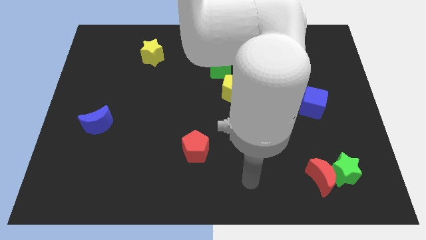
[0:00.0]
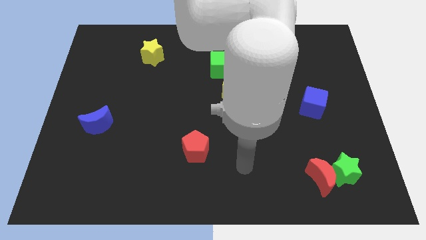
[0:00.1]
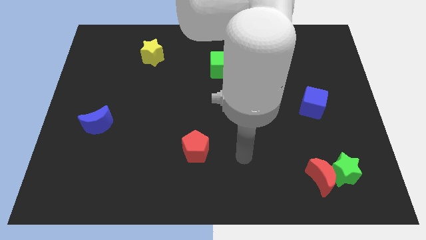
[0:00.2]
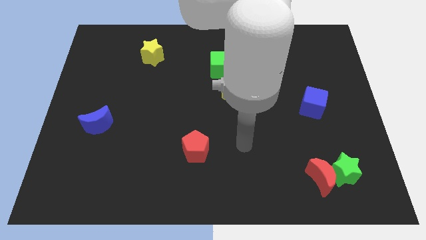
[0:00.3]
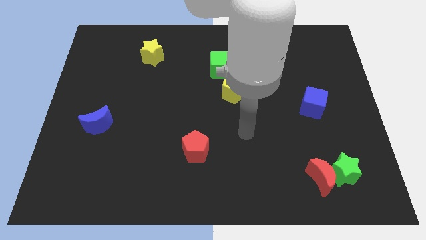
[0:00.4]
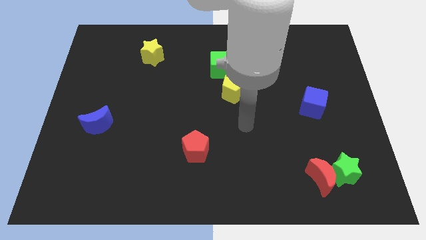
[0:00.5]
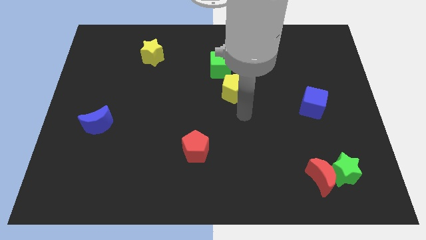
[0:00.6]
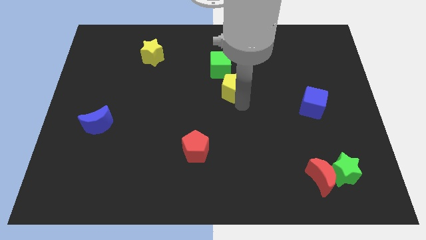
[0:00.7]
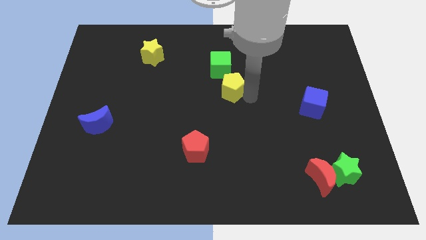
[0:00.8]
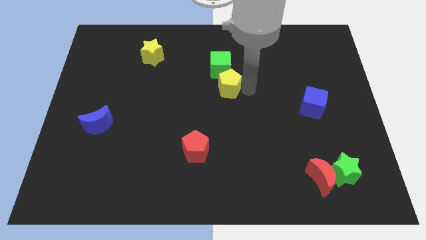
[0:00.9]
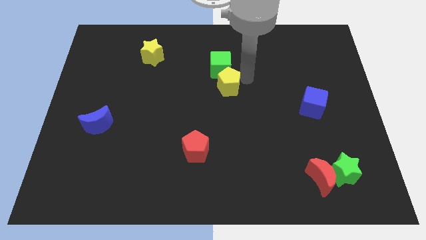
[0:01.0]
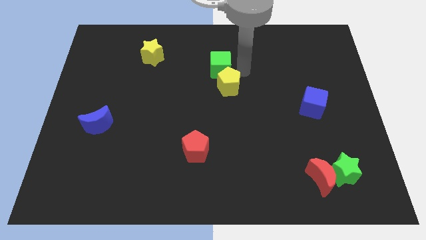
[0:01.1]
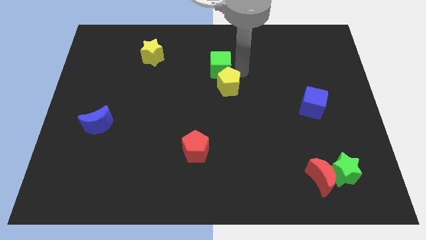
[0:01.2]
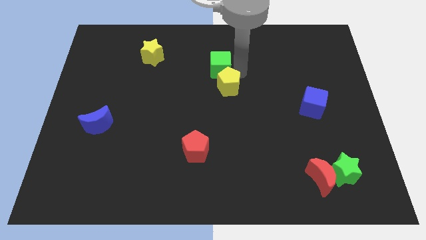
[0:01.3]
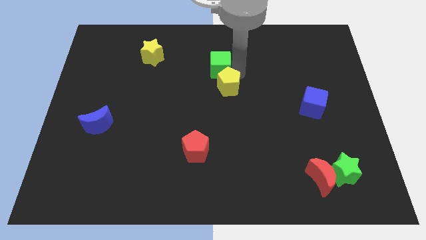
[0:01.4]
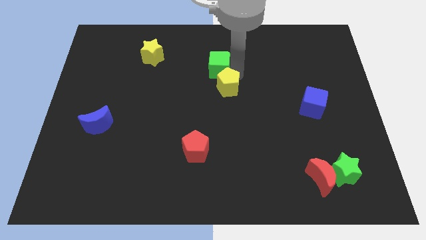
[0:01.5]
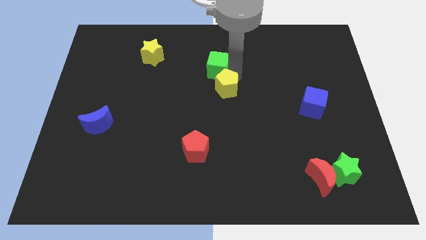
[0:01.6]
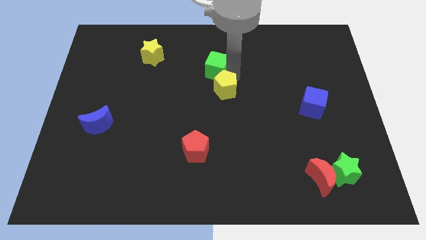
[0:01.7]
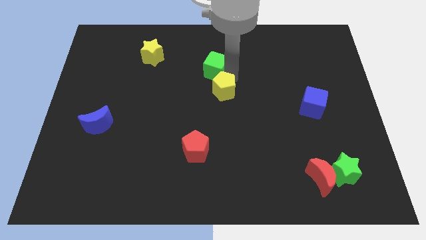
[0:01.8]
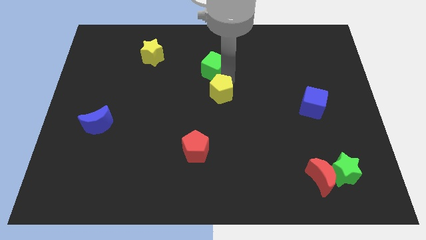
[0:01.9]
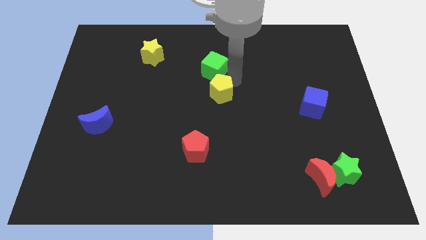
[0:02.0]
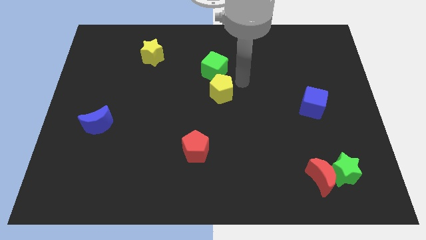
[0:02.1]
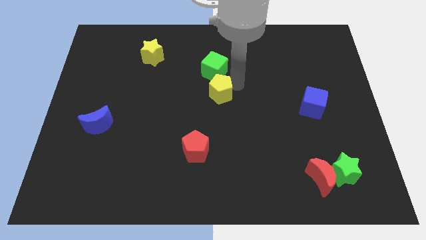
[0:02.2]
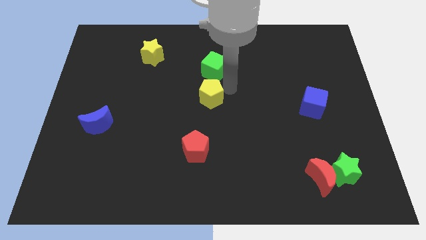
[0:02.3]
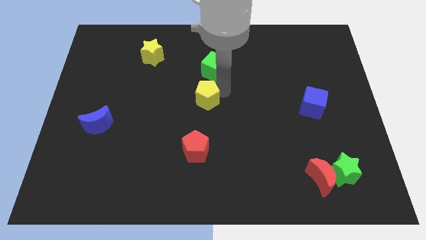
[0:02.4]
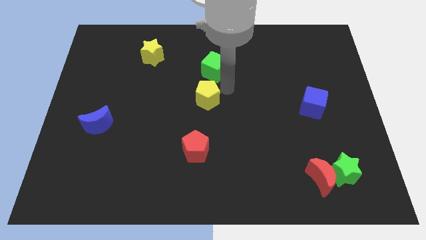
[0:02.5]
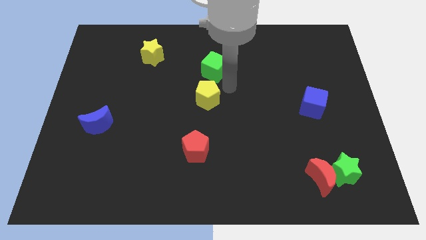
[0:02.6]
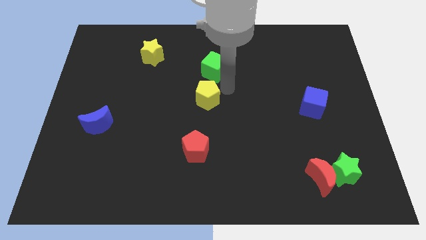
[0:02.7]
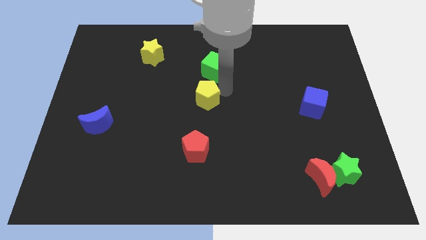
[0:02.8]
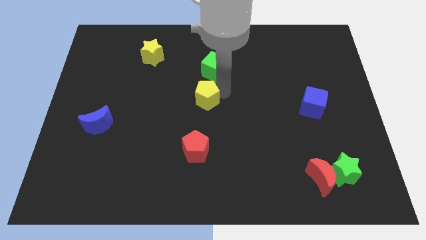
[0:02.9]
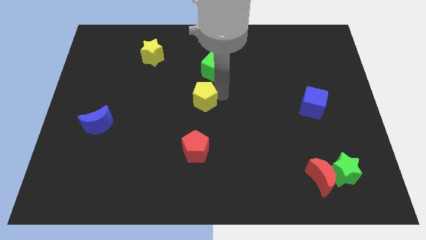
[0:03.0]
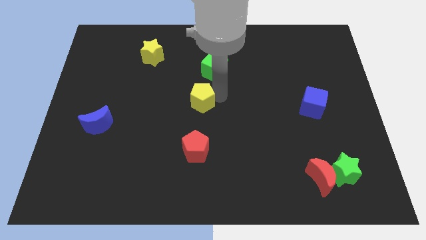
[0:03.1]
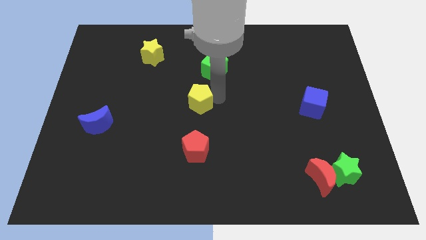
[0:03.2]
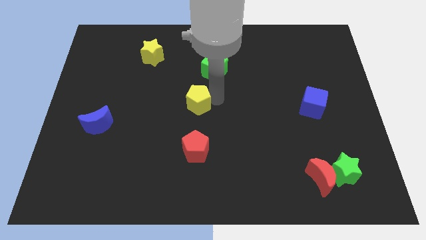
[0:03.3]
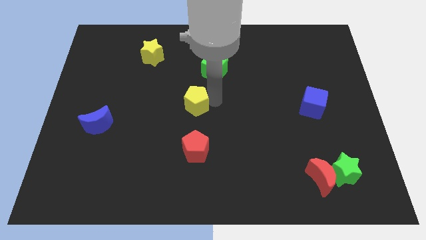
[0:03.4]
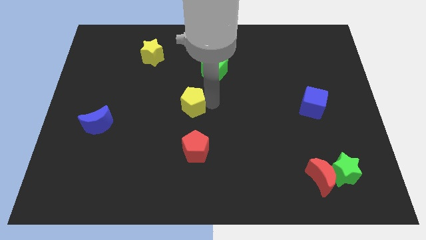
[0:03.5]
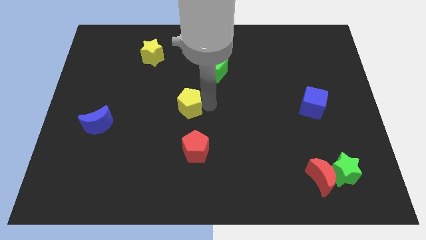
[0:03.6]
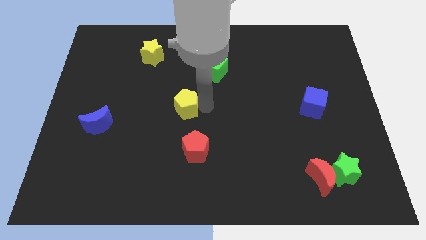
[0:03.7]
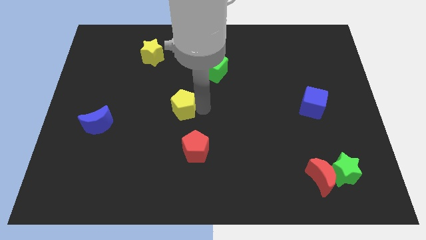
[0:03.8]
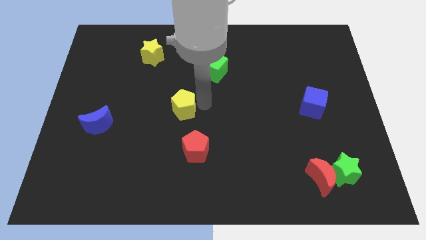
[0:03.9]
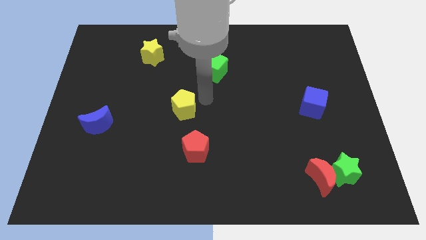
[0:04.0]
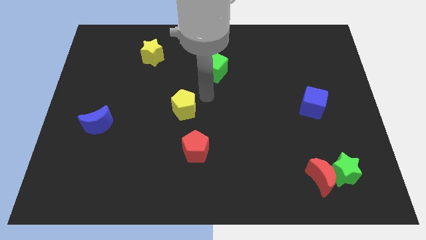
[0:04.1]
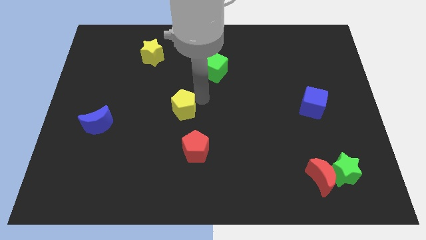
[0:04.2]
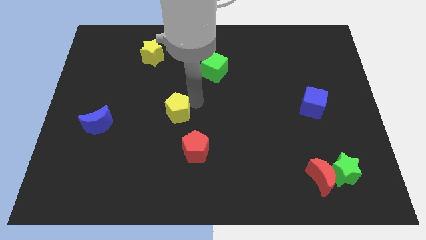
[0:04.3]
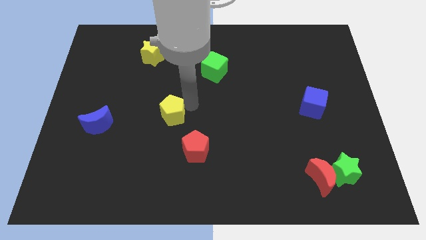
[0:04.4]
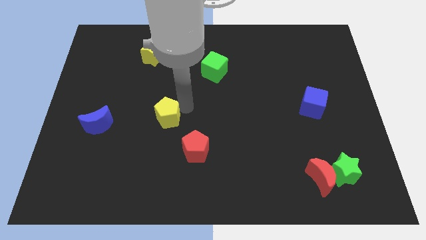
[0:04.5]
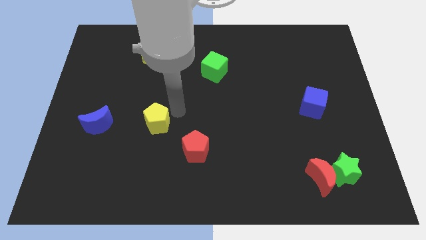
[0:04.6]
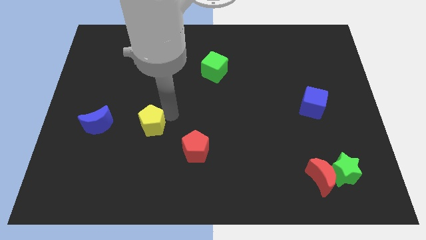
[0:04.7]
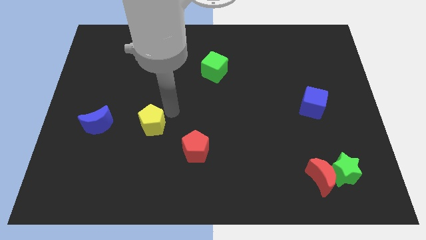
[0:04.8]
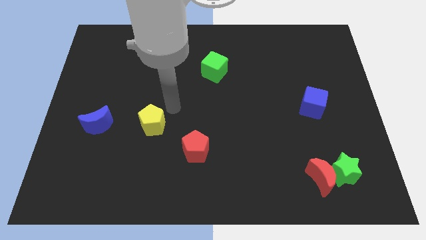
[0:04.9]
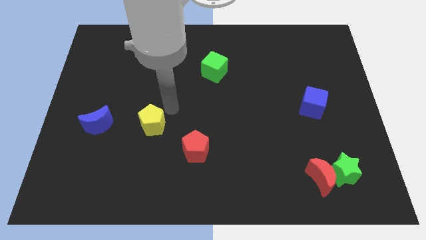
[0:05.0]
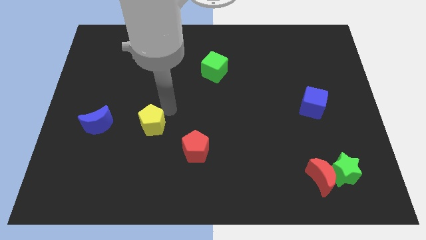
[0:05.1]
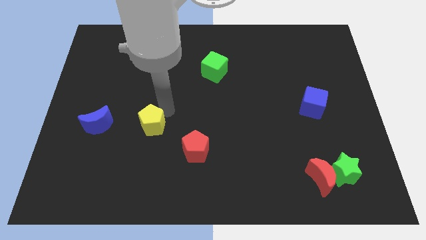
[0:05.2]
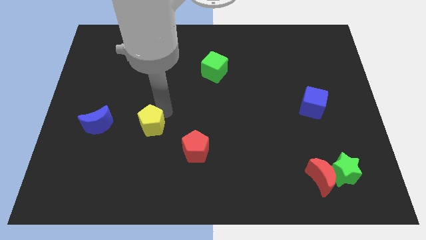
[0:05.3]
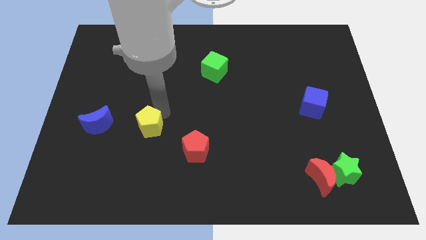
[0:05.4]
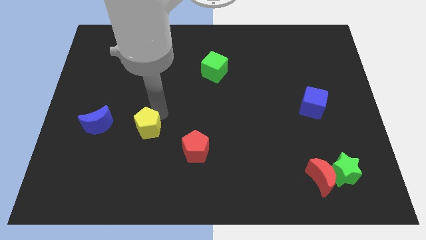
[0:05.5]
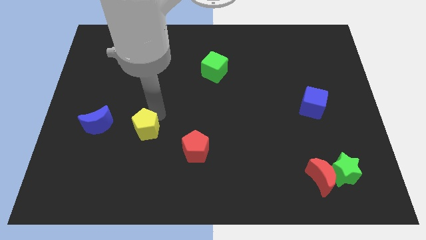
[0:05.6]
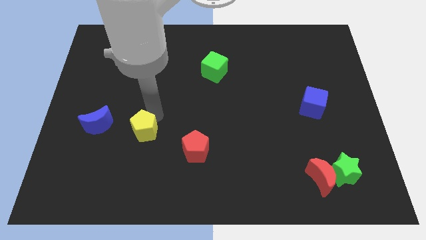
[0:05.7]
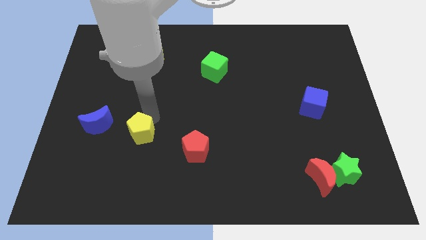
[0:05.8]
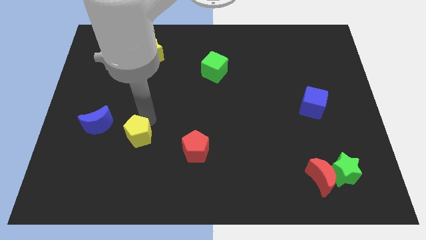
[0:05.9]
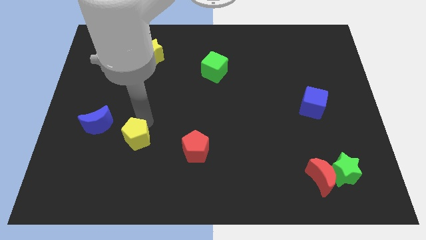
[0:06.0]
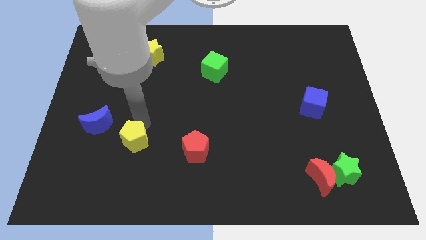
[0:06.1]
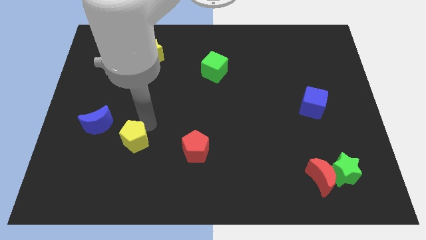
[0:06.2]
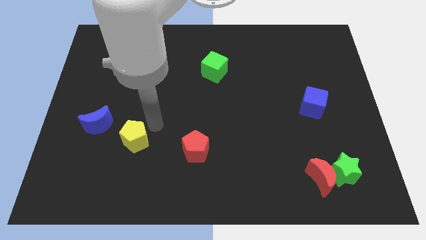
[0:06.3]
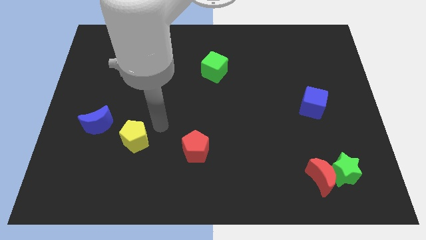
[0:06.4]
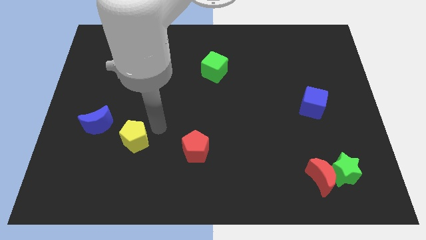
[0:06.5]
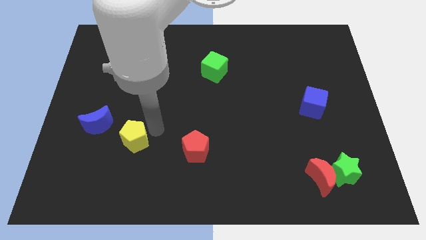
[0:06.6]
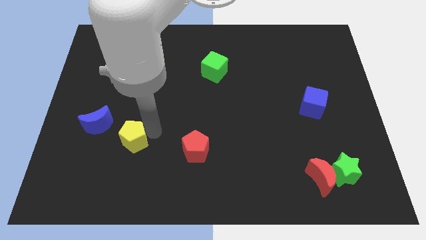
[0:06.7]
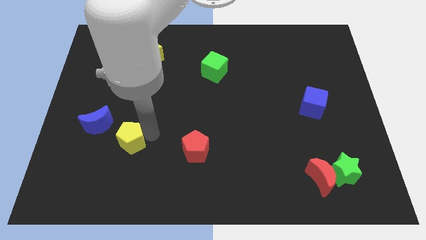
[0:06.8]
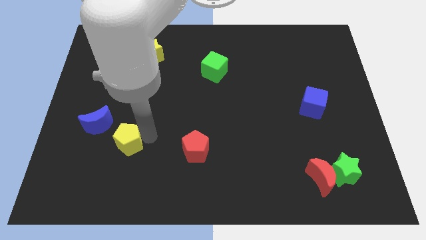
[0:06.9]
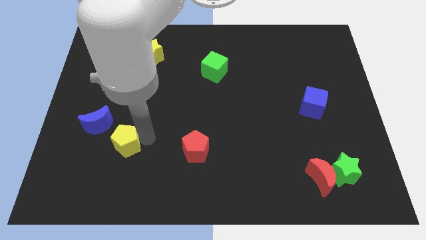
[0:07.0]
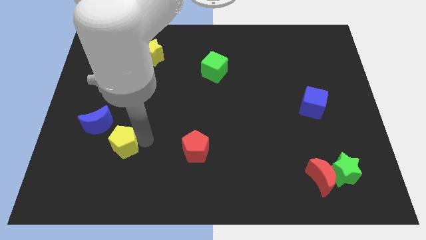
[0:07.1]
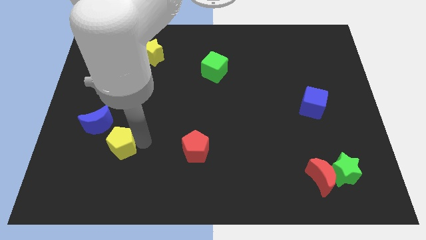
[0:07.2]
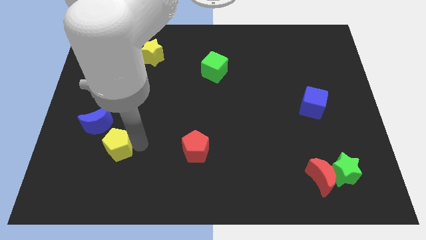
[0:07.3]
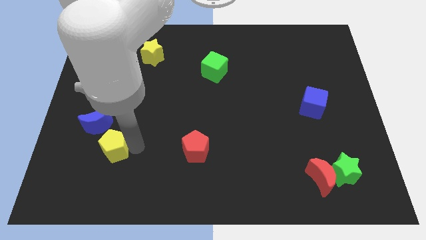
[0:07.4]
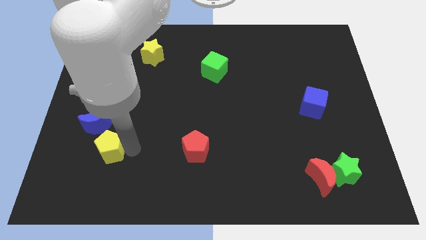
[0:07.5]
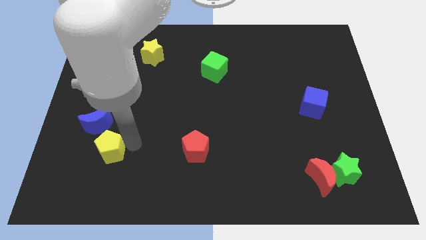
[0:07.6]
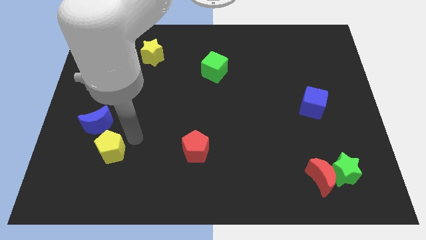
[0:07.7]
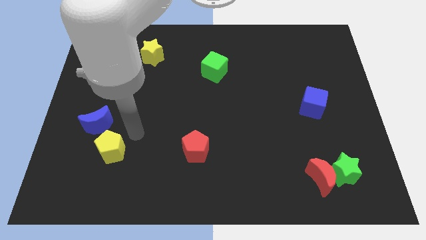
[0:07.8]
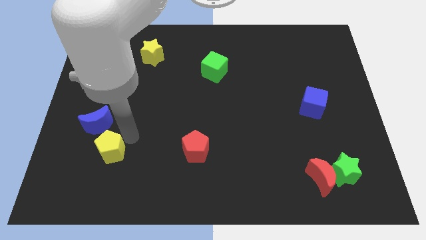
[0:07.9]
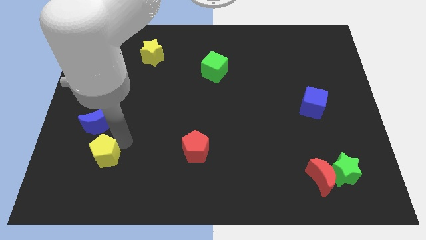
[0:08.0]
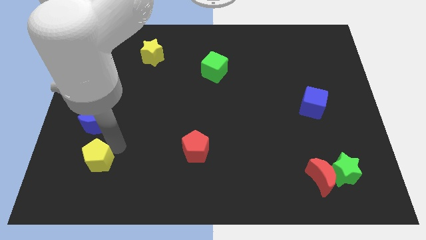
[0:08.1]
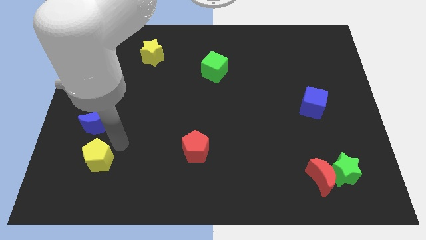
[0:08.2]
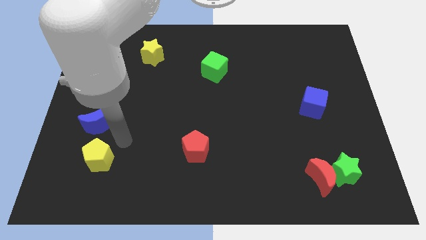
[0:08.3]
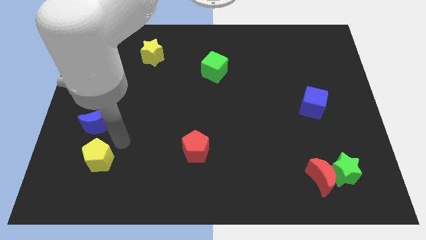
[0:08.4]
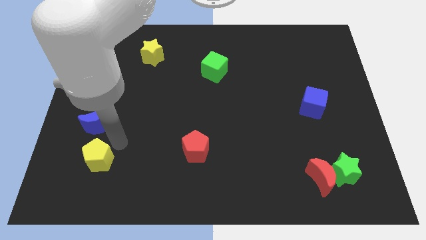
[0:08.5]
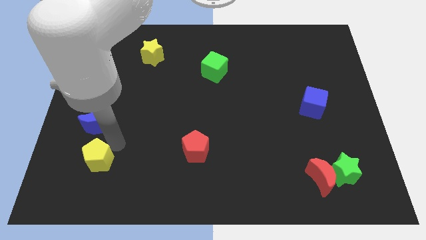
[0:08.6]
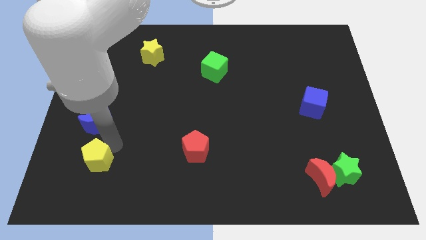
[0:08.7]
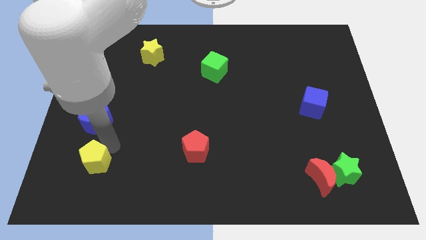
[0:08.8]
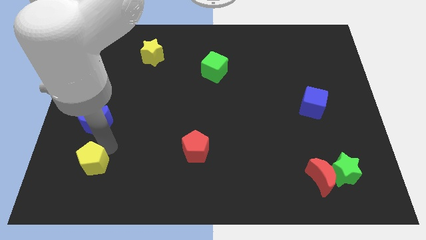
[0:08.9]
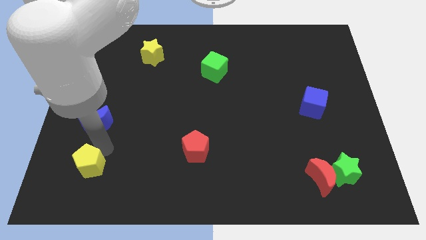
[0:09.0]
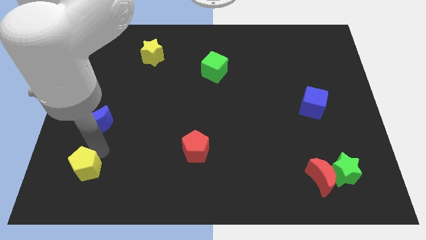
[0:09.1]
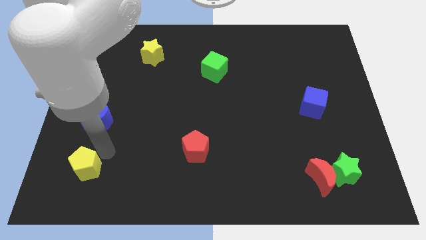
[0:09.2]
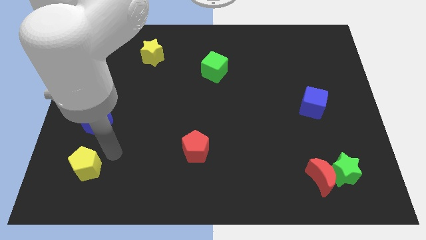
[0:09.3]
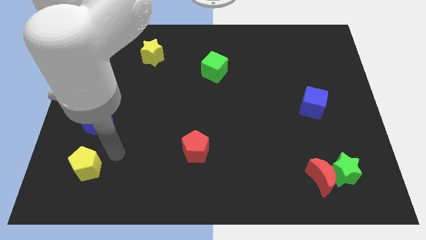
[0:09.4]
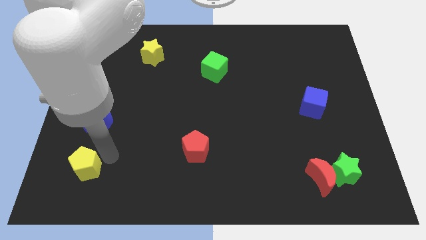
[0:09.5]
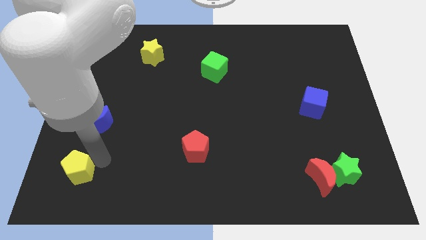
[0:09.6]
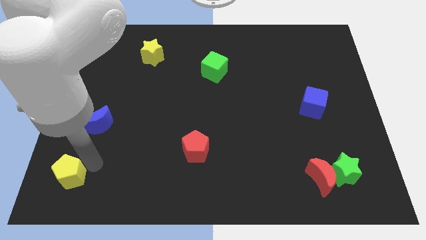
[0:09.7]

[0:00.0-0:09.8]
push the yellow pentagon to the bottom left of the board
